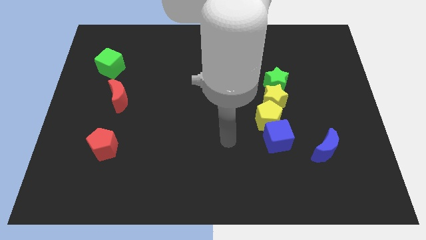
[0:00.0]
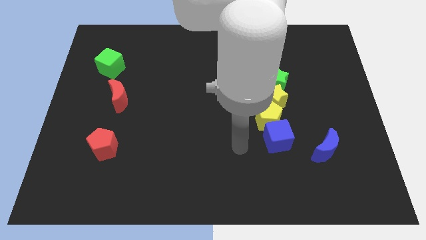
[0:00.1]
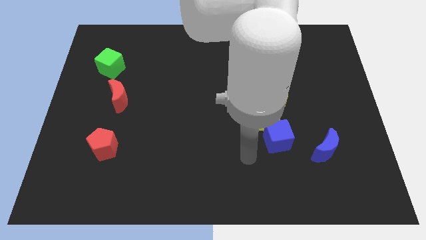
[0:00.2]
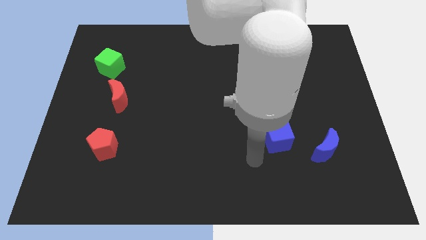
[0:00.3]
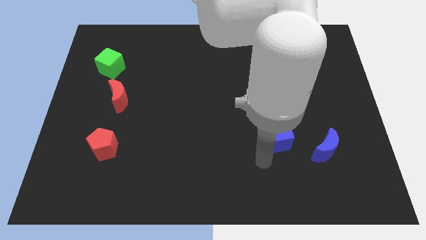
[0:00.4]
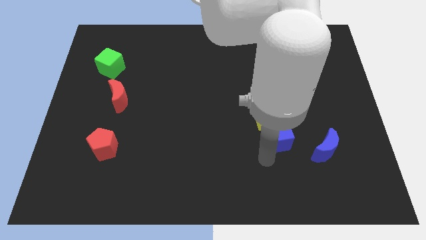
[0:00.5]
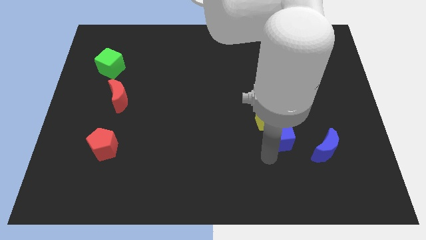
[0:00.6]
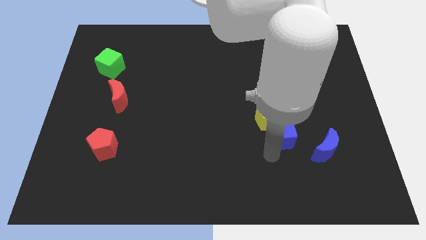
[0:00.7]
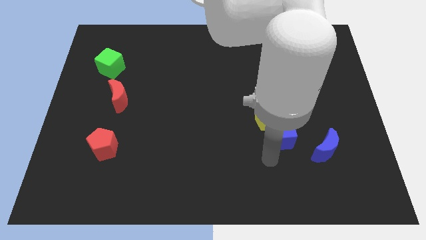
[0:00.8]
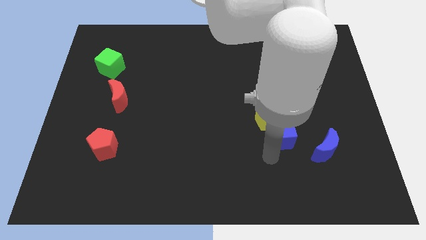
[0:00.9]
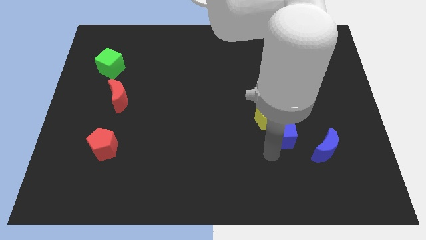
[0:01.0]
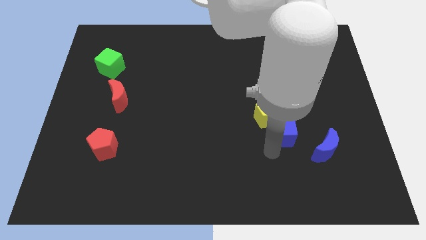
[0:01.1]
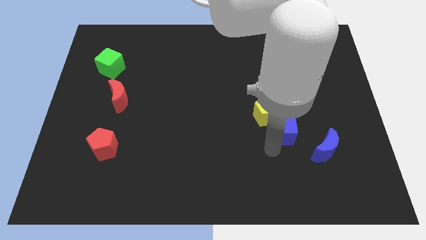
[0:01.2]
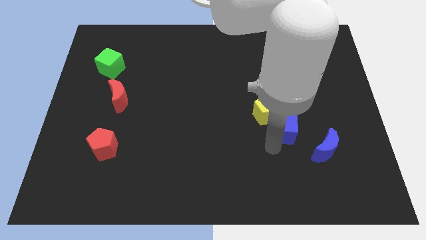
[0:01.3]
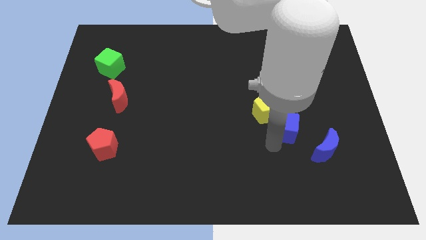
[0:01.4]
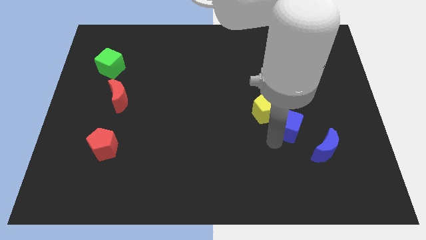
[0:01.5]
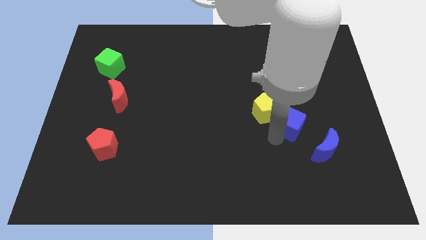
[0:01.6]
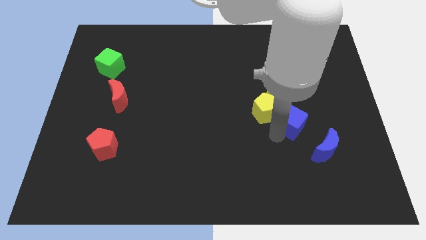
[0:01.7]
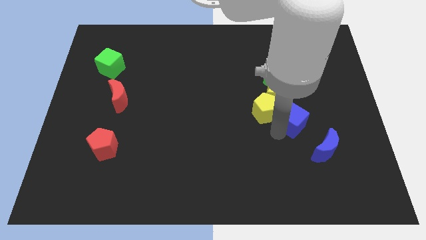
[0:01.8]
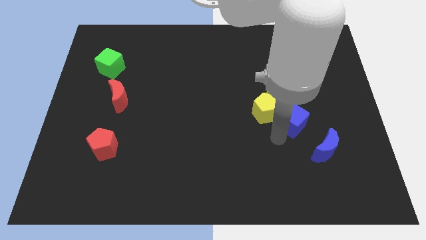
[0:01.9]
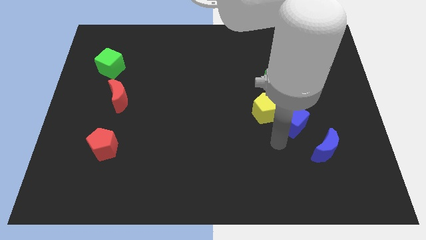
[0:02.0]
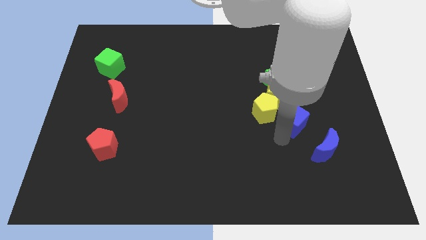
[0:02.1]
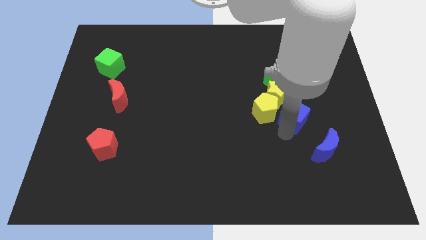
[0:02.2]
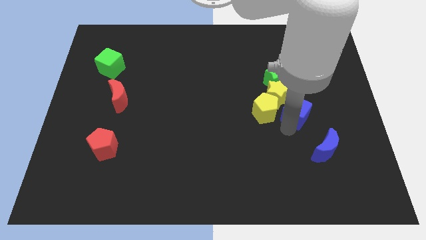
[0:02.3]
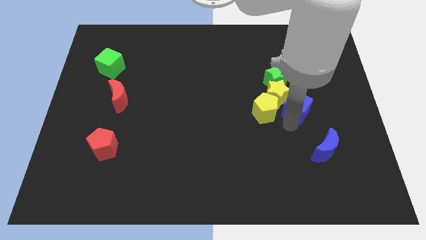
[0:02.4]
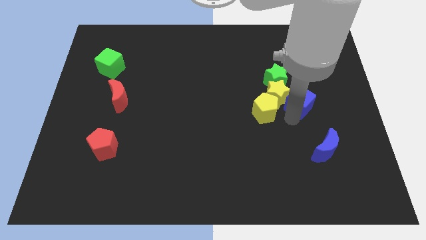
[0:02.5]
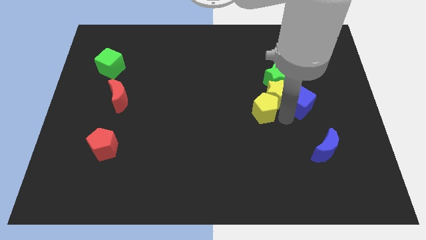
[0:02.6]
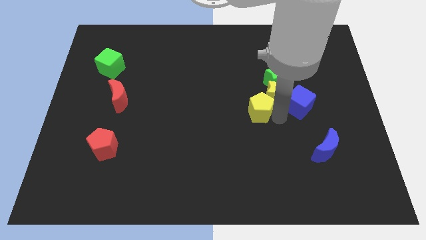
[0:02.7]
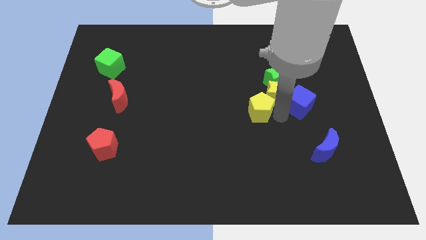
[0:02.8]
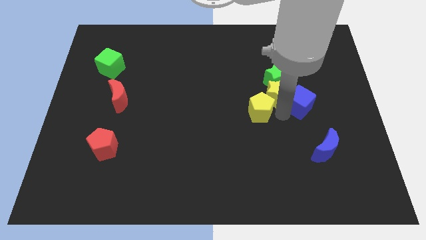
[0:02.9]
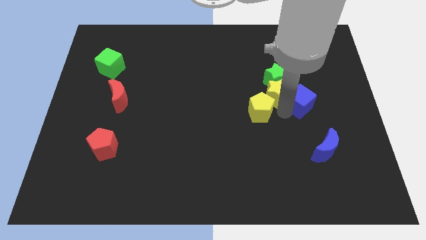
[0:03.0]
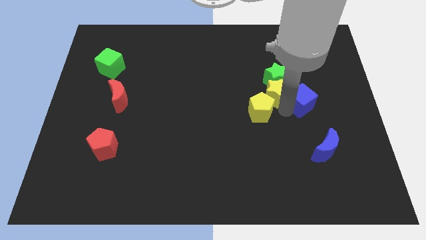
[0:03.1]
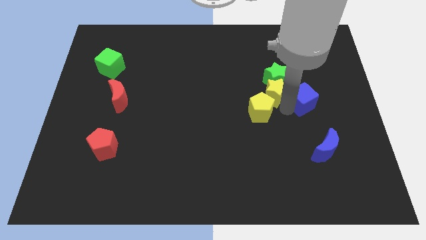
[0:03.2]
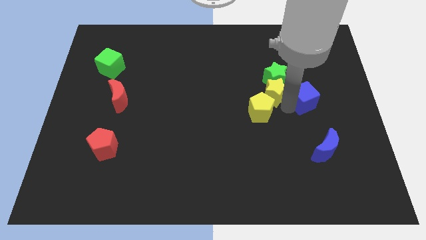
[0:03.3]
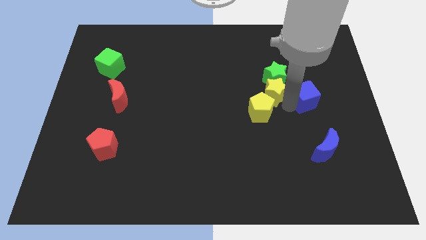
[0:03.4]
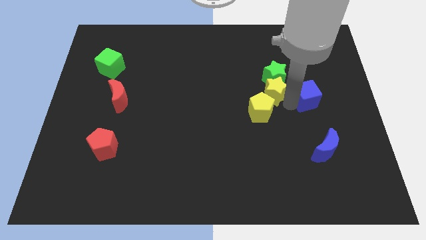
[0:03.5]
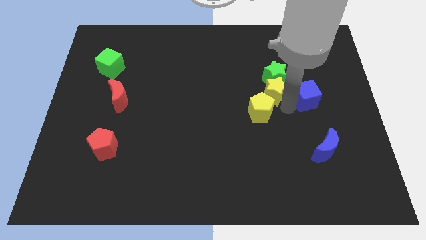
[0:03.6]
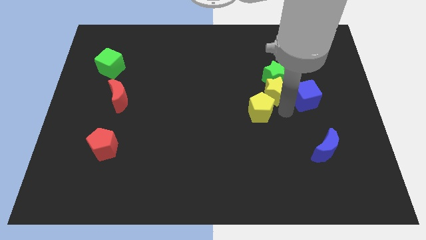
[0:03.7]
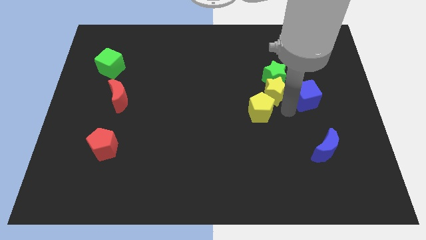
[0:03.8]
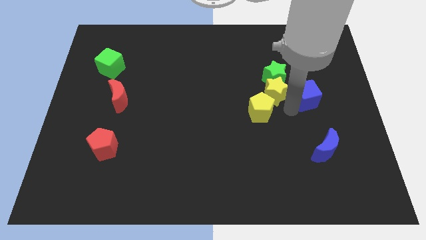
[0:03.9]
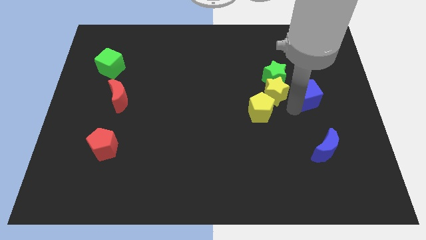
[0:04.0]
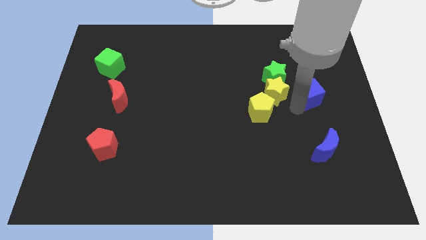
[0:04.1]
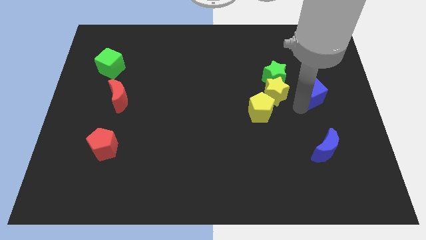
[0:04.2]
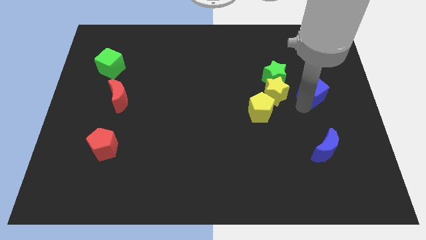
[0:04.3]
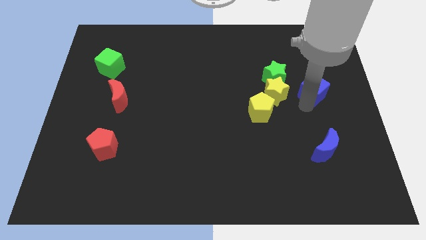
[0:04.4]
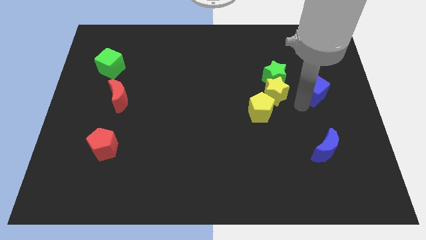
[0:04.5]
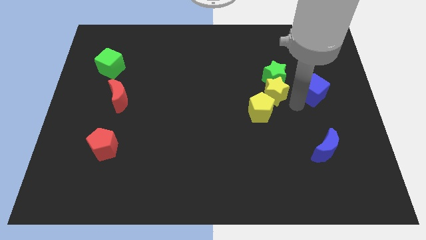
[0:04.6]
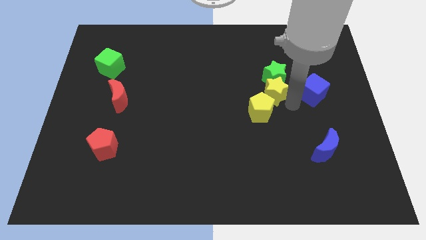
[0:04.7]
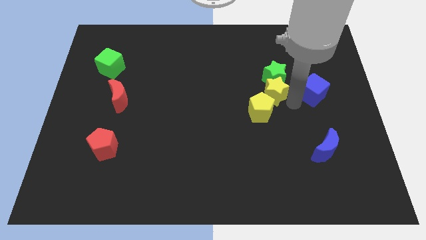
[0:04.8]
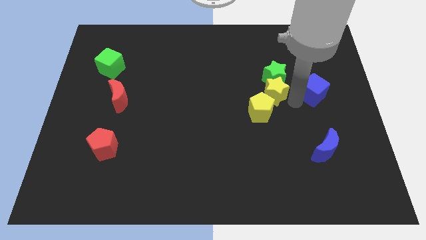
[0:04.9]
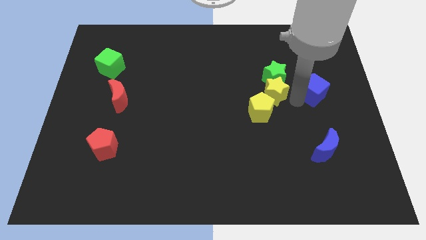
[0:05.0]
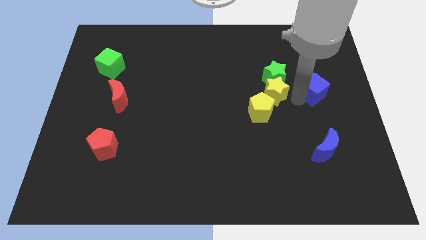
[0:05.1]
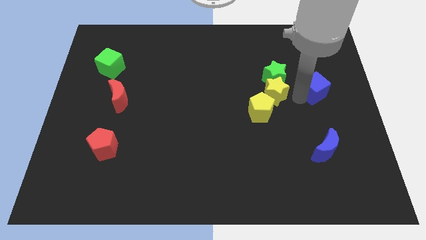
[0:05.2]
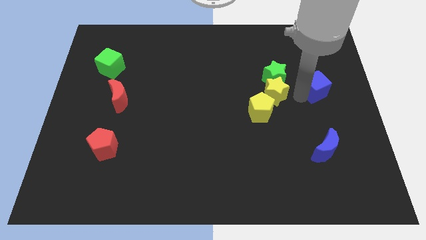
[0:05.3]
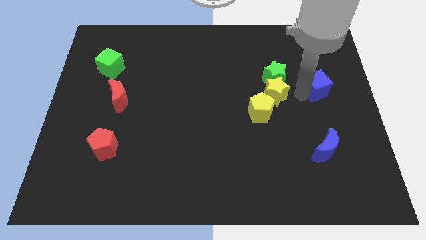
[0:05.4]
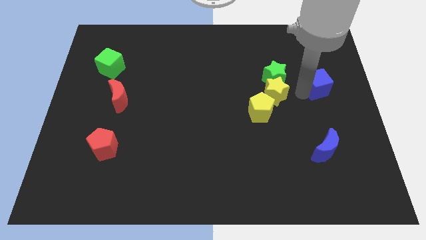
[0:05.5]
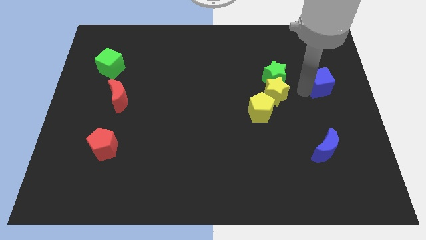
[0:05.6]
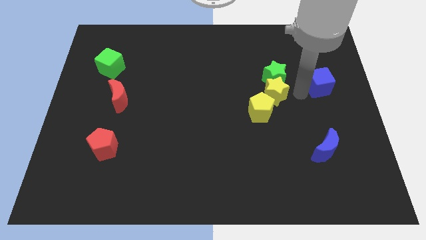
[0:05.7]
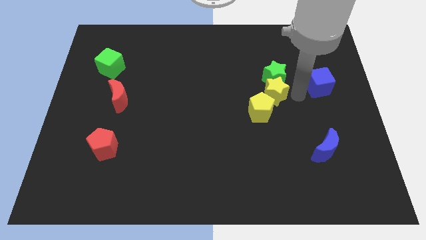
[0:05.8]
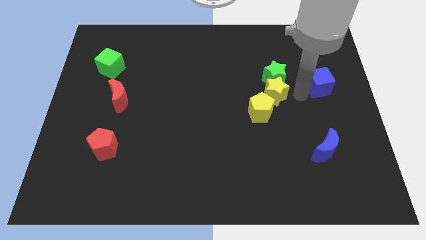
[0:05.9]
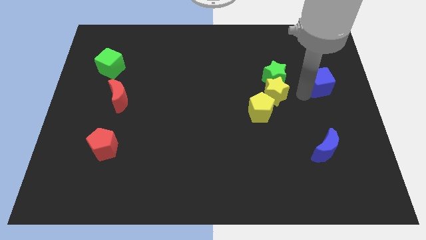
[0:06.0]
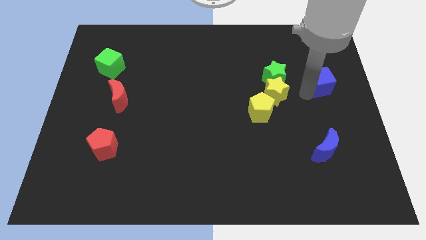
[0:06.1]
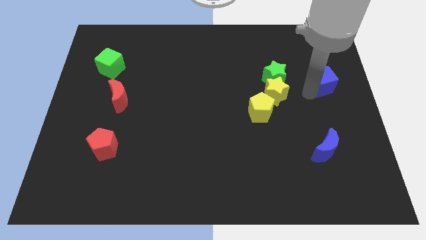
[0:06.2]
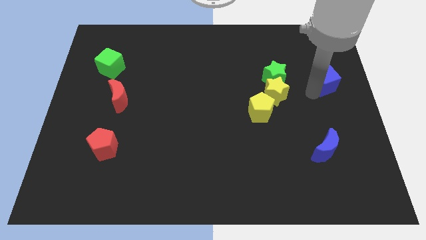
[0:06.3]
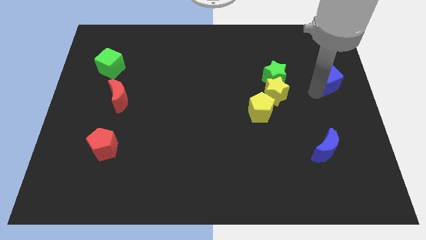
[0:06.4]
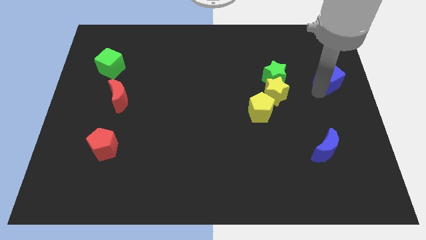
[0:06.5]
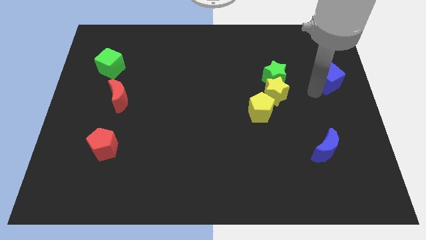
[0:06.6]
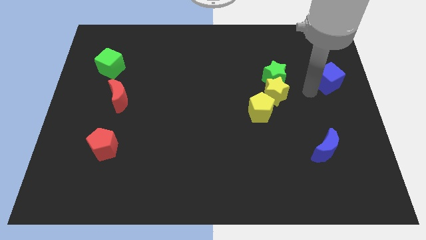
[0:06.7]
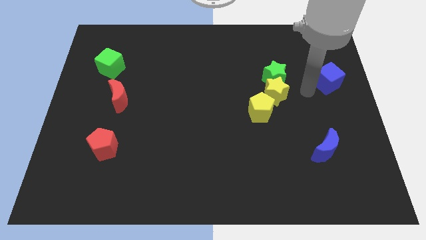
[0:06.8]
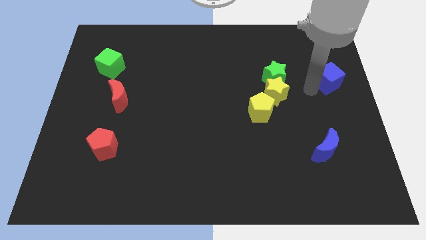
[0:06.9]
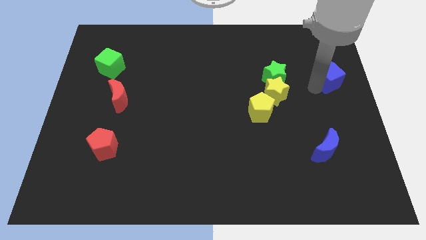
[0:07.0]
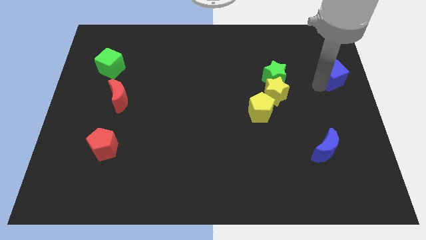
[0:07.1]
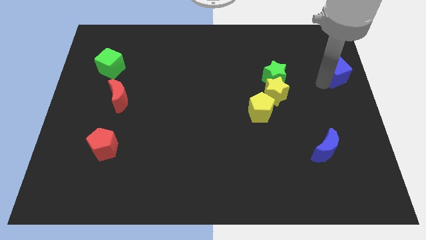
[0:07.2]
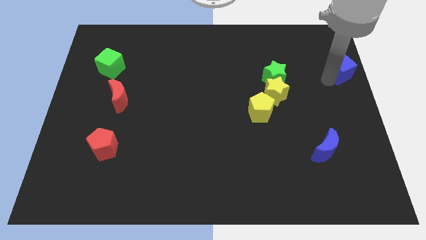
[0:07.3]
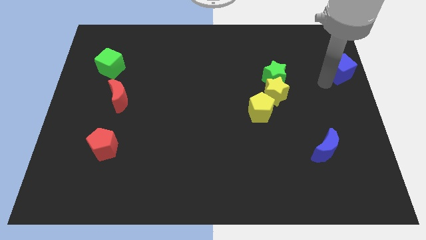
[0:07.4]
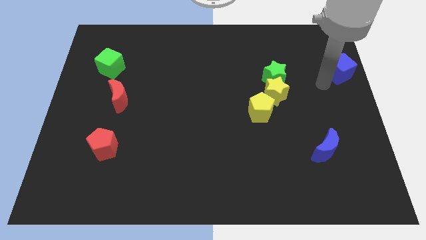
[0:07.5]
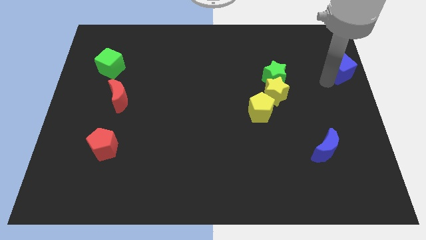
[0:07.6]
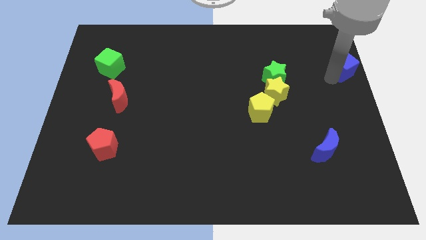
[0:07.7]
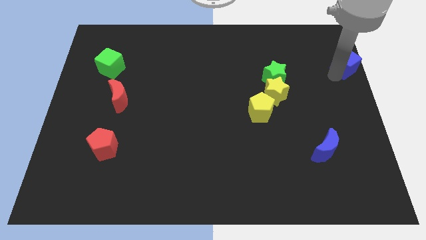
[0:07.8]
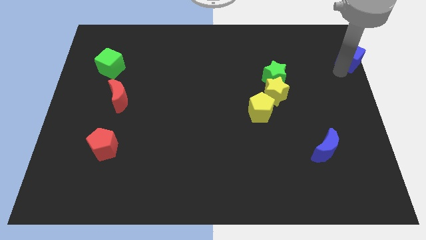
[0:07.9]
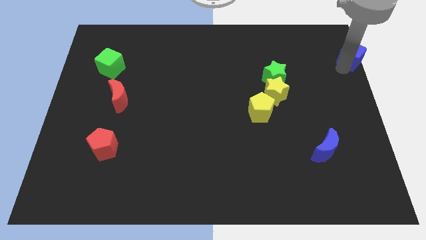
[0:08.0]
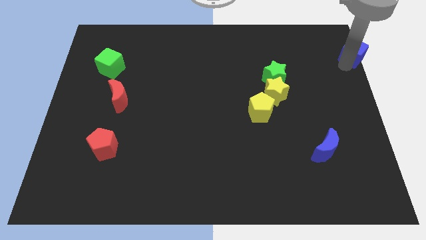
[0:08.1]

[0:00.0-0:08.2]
move the blue cube to the top right
